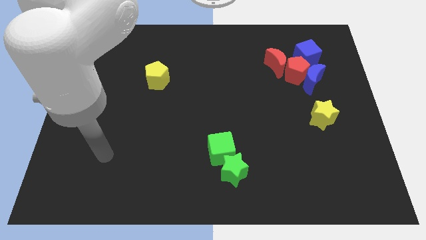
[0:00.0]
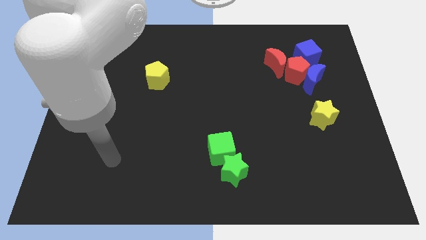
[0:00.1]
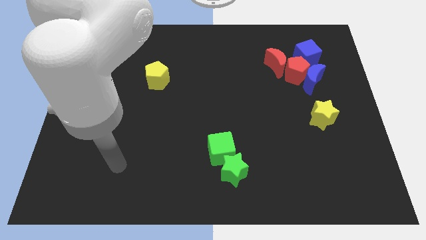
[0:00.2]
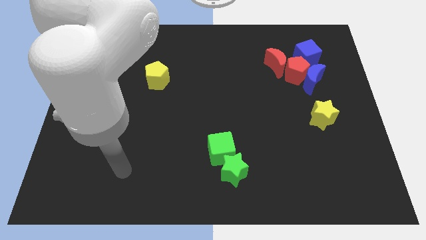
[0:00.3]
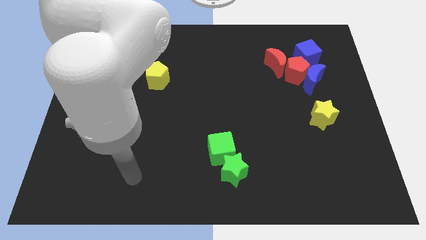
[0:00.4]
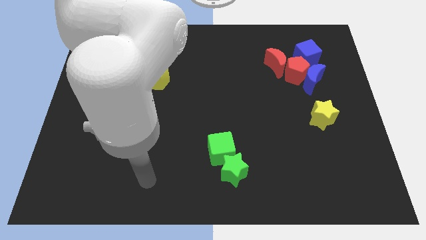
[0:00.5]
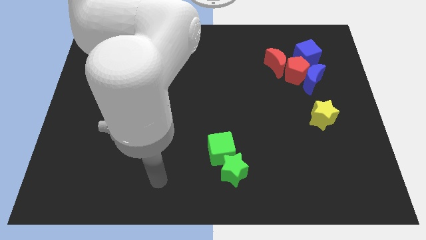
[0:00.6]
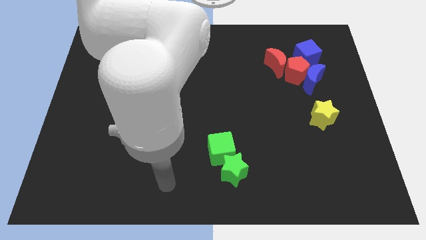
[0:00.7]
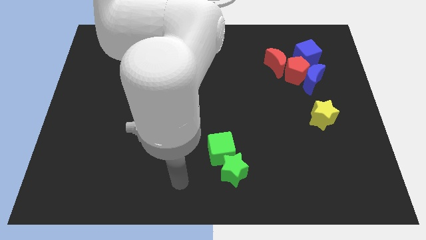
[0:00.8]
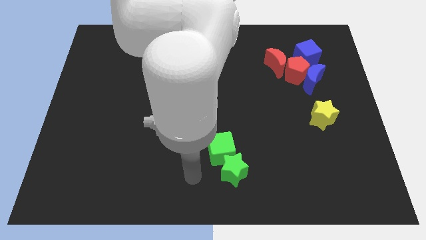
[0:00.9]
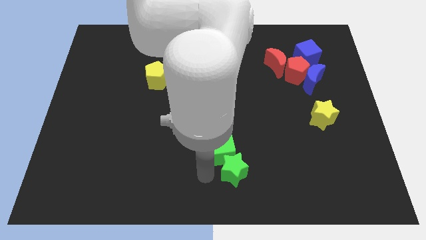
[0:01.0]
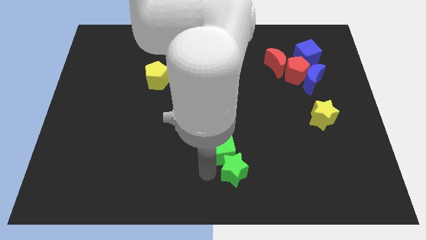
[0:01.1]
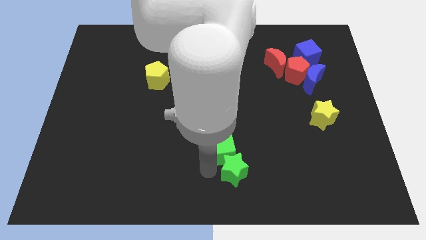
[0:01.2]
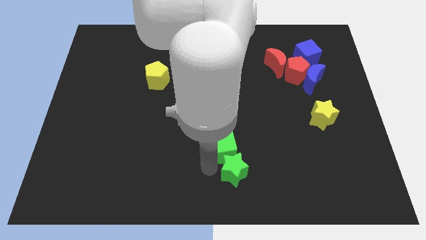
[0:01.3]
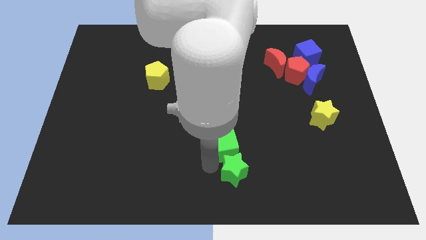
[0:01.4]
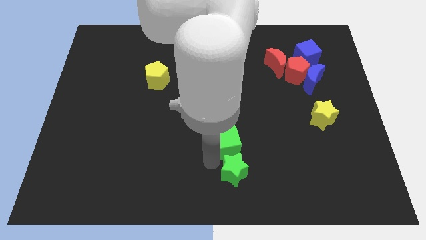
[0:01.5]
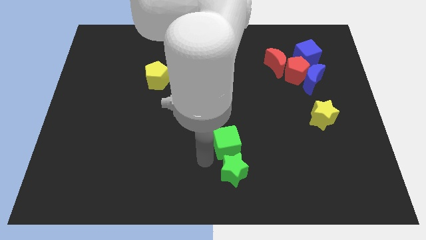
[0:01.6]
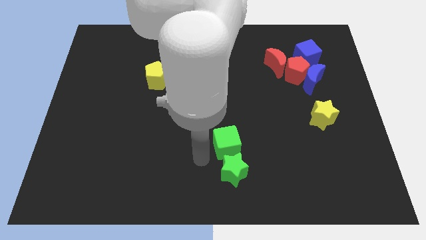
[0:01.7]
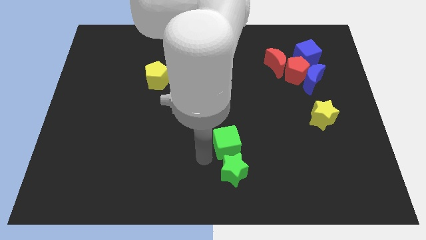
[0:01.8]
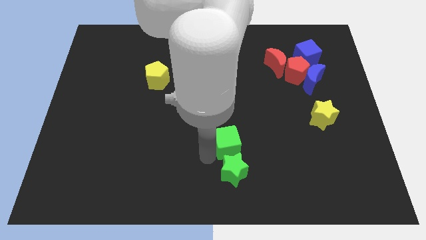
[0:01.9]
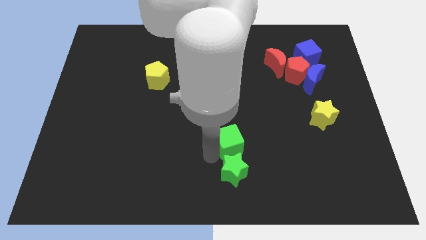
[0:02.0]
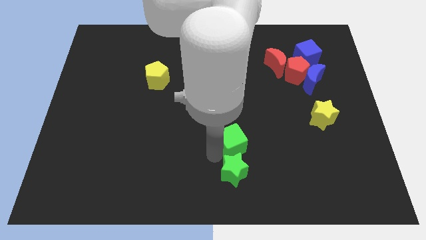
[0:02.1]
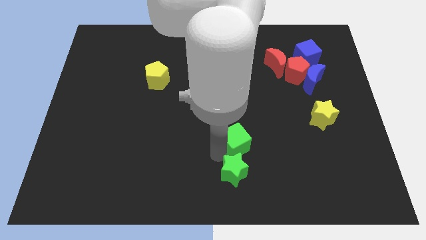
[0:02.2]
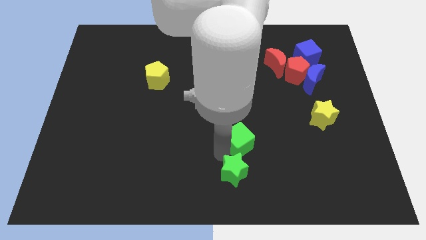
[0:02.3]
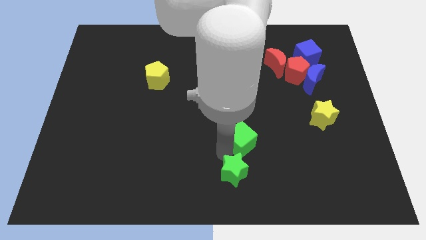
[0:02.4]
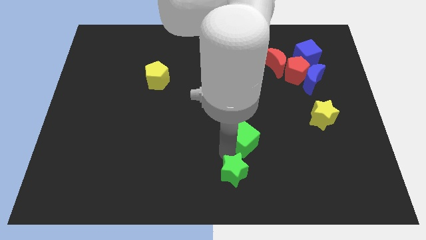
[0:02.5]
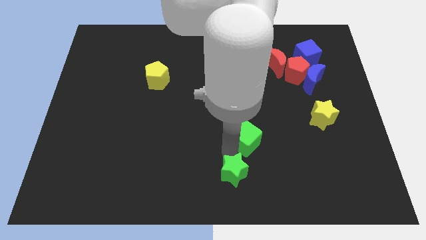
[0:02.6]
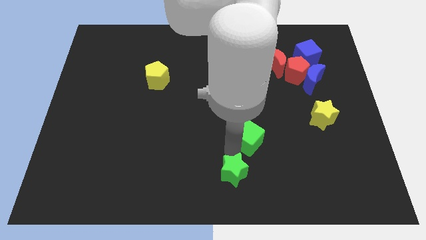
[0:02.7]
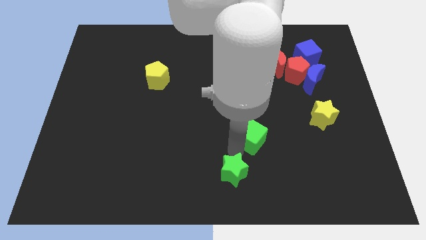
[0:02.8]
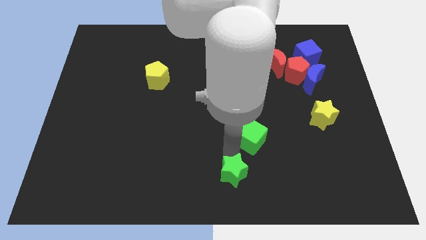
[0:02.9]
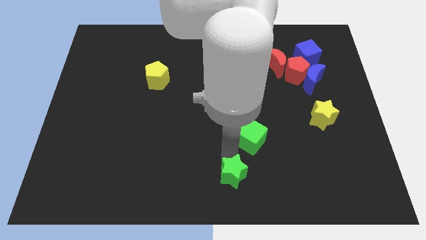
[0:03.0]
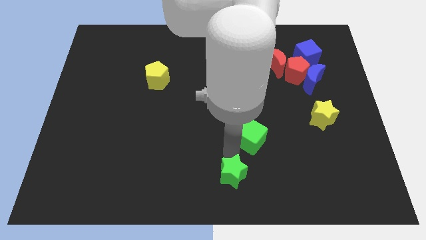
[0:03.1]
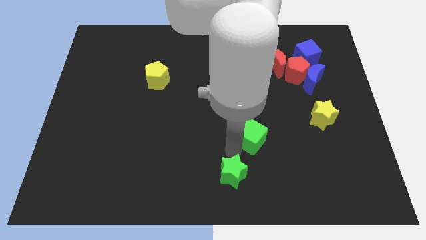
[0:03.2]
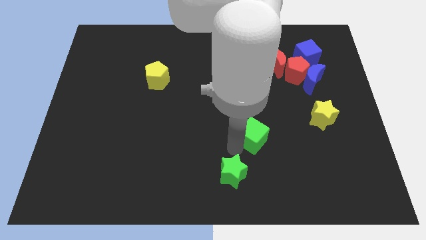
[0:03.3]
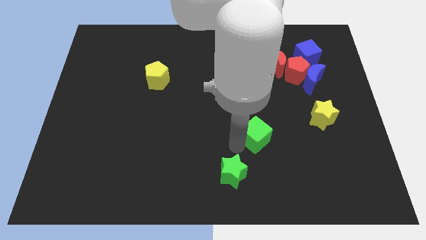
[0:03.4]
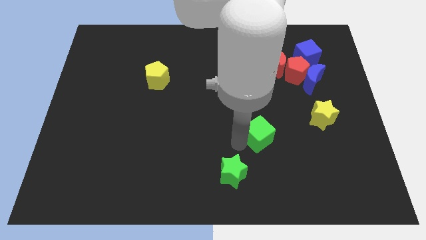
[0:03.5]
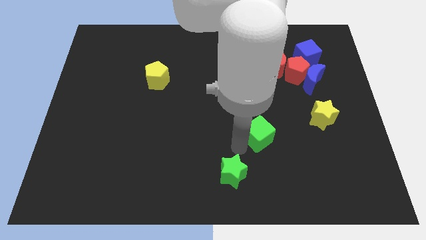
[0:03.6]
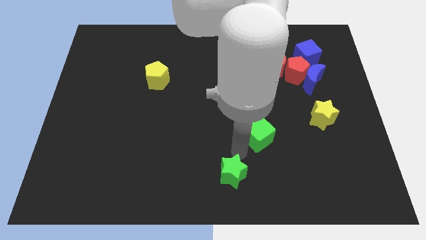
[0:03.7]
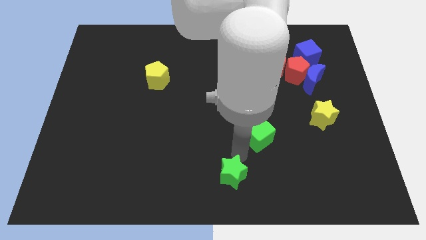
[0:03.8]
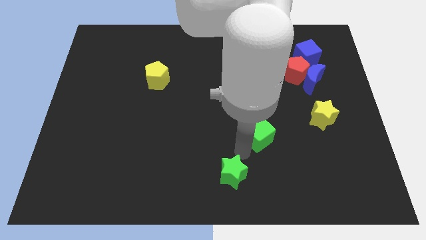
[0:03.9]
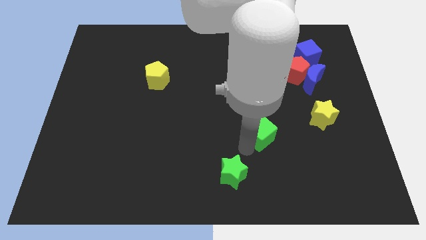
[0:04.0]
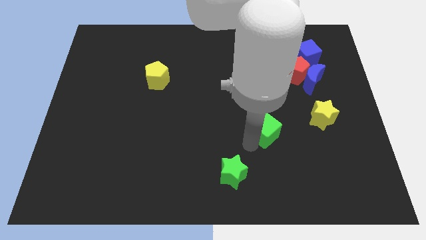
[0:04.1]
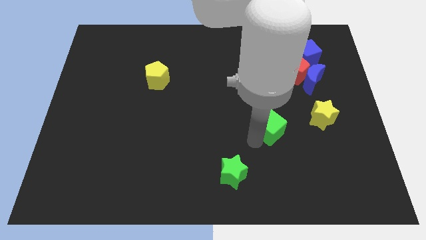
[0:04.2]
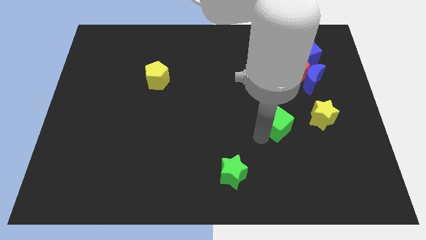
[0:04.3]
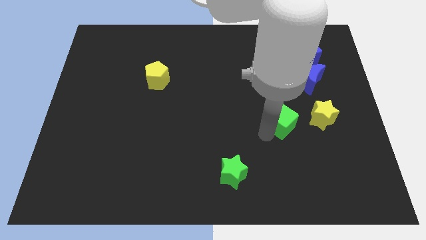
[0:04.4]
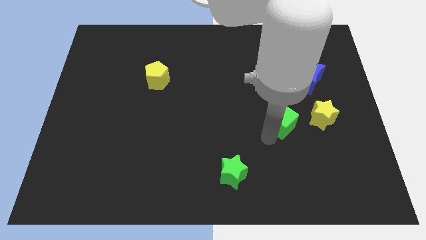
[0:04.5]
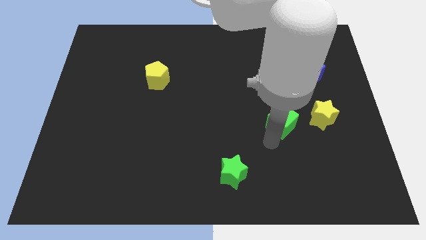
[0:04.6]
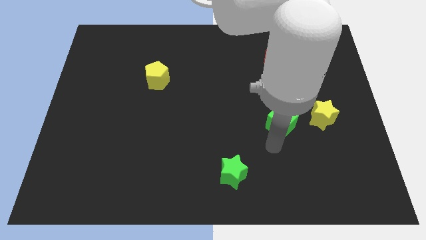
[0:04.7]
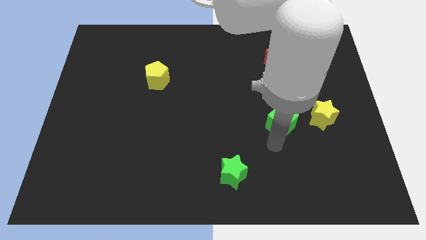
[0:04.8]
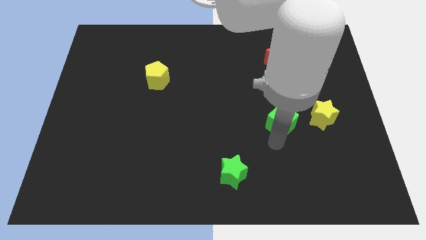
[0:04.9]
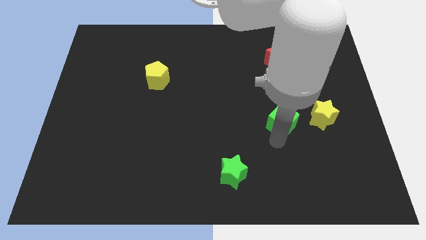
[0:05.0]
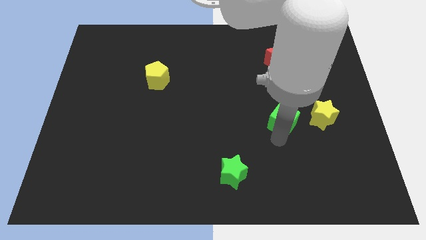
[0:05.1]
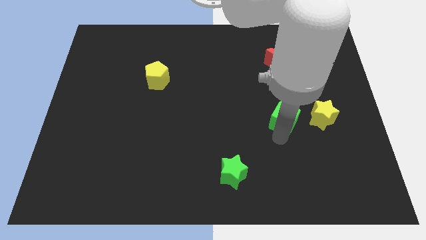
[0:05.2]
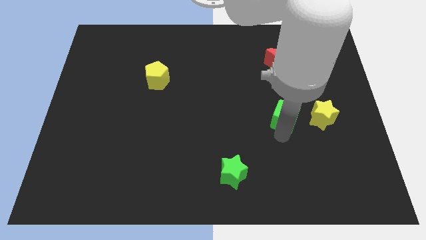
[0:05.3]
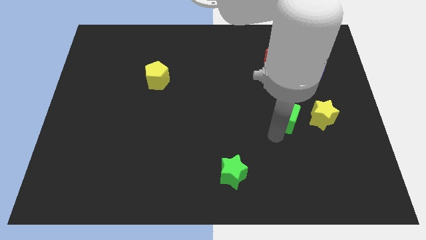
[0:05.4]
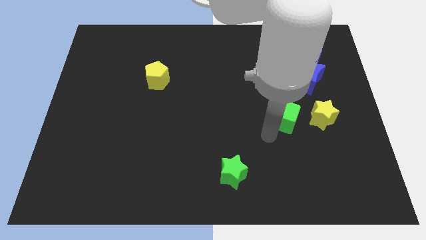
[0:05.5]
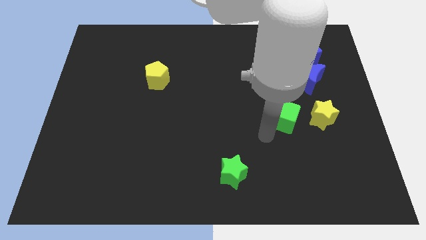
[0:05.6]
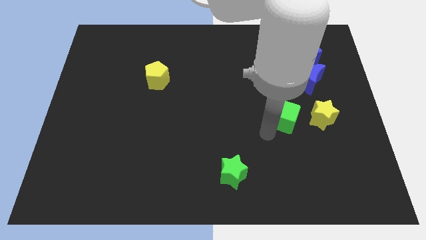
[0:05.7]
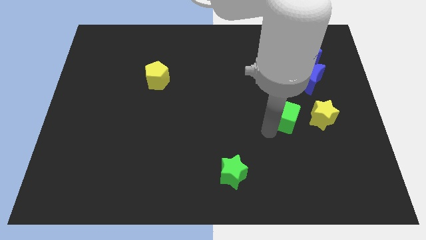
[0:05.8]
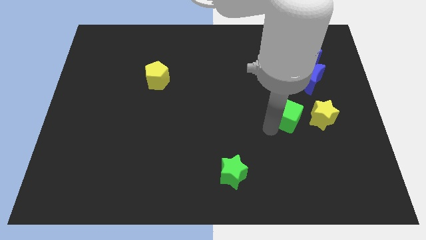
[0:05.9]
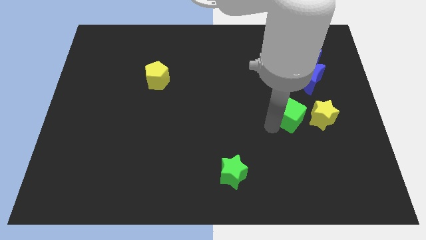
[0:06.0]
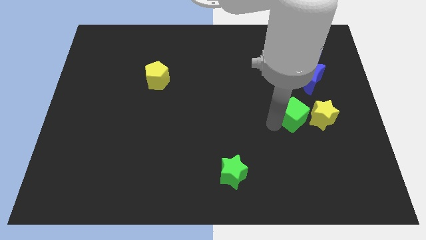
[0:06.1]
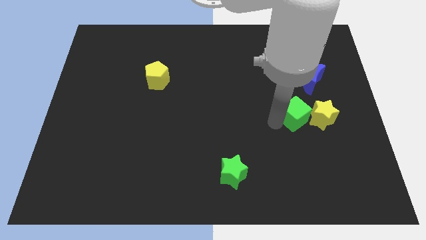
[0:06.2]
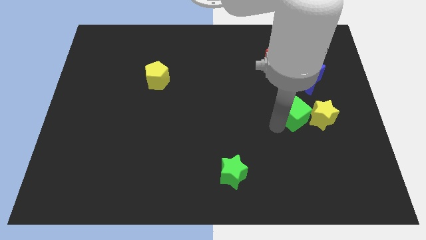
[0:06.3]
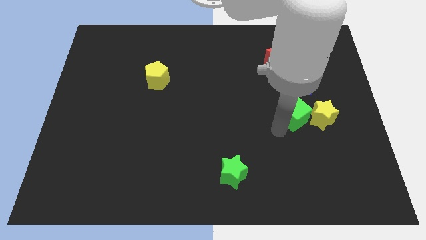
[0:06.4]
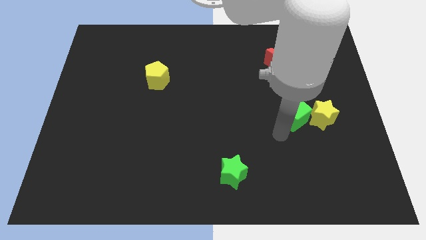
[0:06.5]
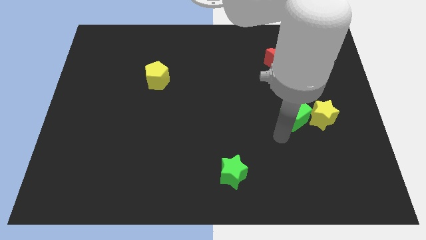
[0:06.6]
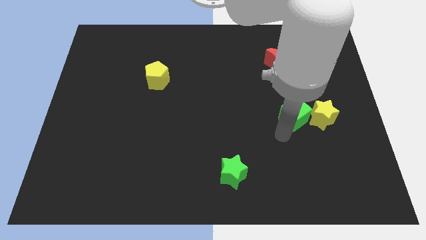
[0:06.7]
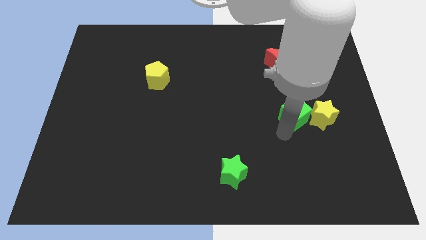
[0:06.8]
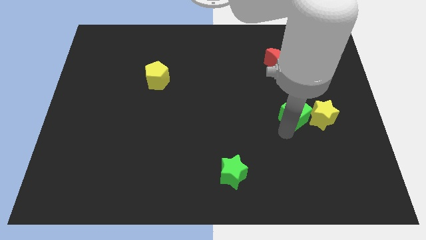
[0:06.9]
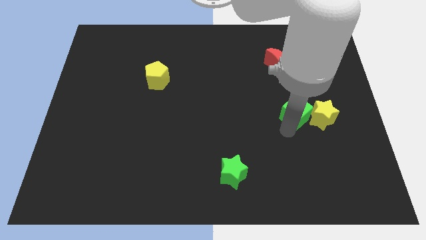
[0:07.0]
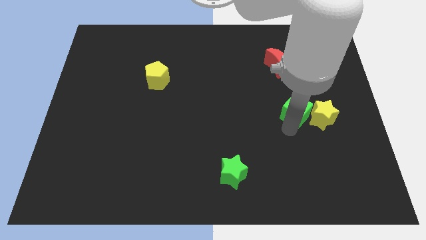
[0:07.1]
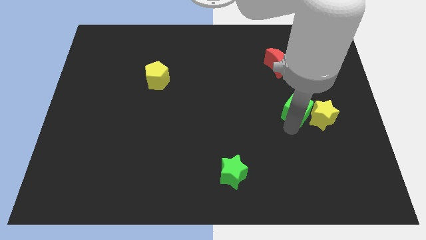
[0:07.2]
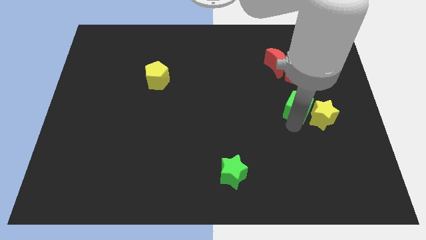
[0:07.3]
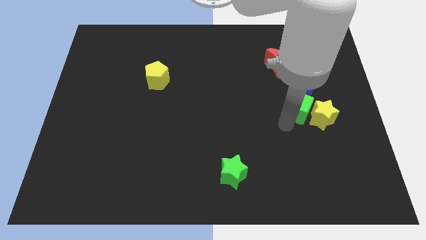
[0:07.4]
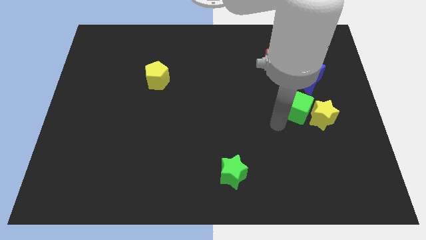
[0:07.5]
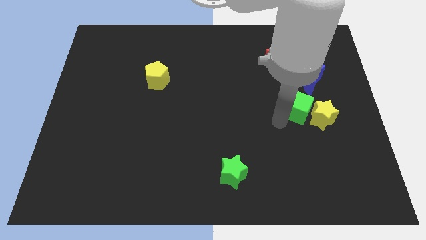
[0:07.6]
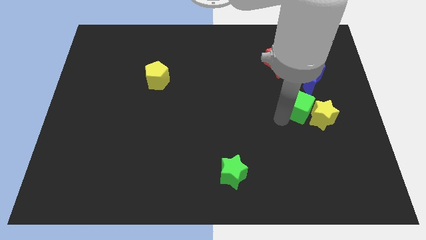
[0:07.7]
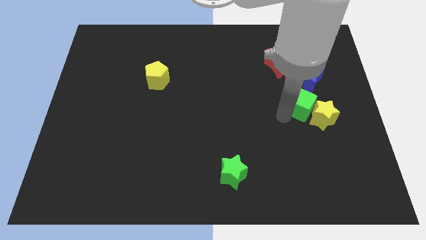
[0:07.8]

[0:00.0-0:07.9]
slide the green cube to the top of the yellow star
